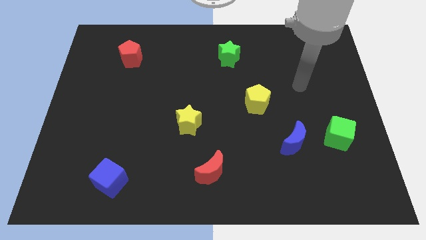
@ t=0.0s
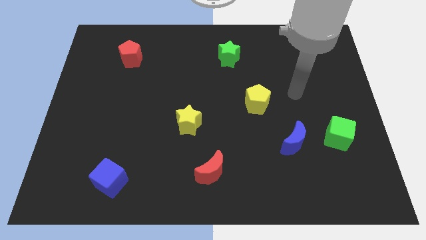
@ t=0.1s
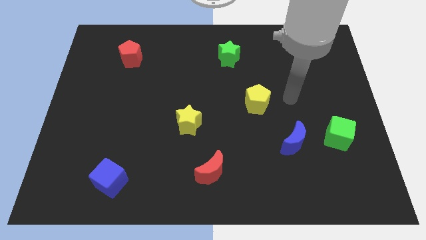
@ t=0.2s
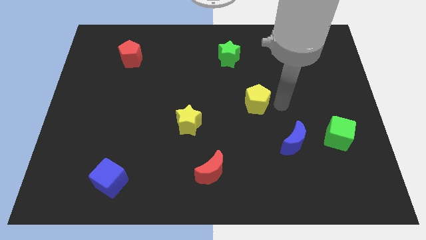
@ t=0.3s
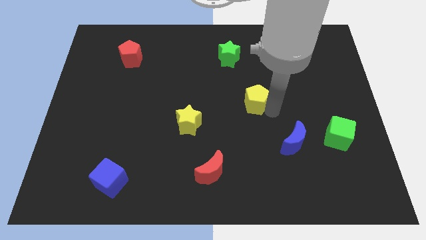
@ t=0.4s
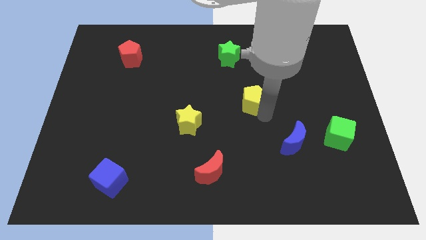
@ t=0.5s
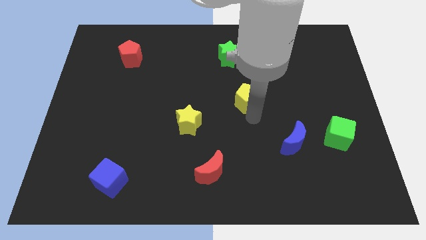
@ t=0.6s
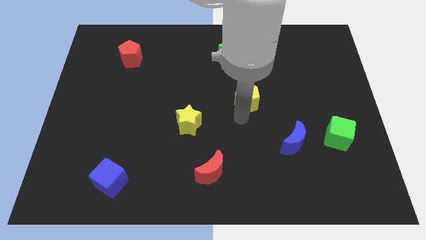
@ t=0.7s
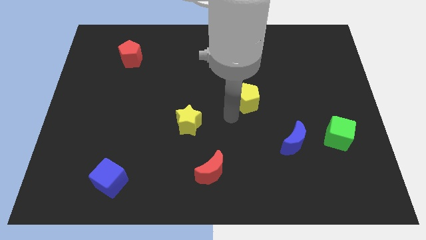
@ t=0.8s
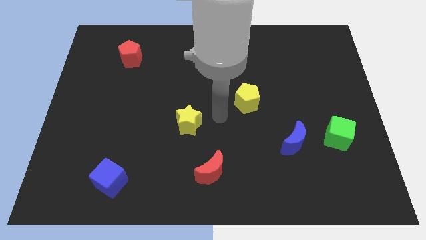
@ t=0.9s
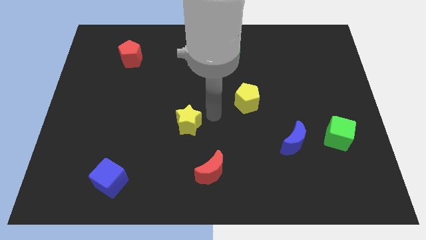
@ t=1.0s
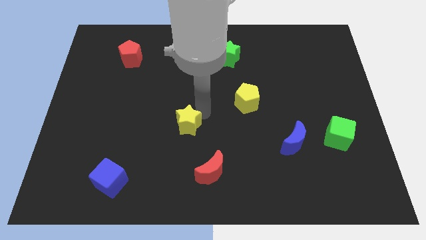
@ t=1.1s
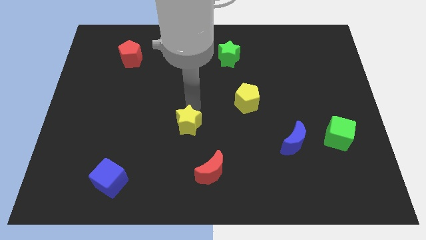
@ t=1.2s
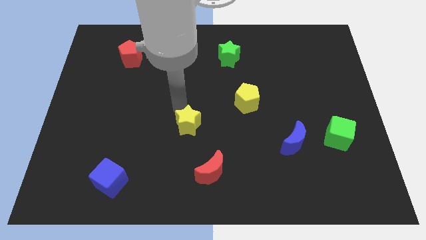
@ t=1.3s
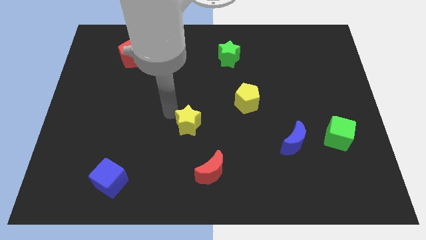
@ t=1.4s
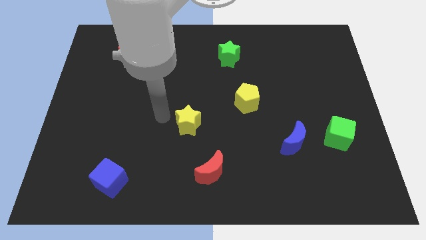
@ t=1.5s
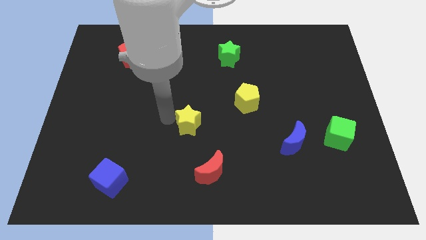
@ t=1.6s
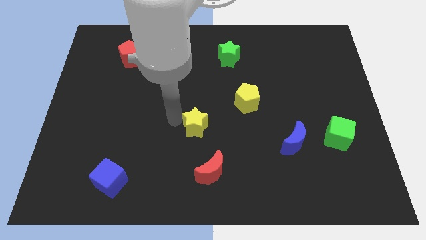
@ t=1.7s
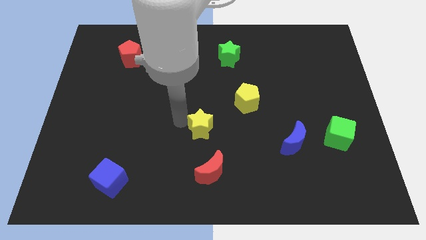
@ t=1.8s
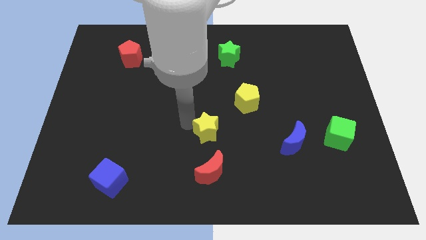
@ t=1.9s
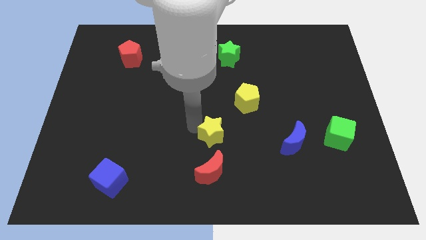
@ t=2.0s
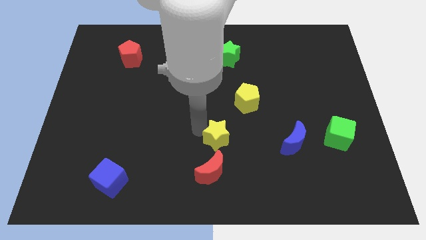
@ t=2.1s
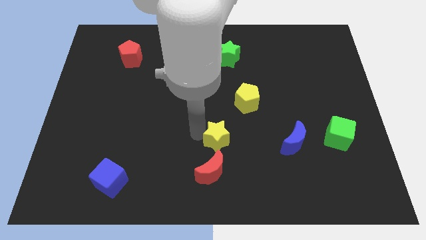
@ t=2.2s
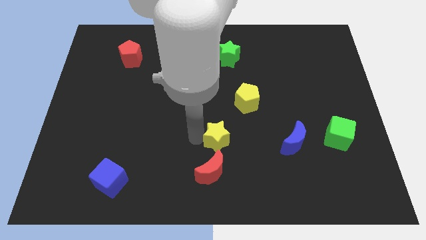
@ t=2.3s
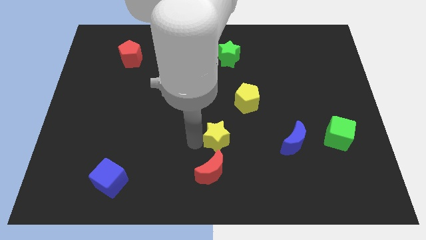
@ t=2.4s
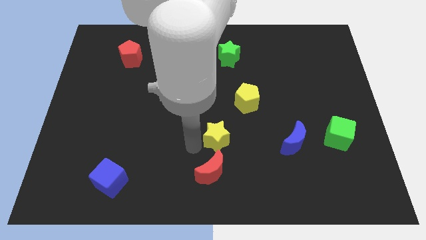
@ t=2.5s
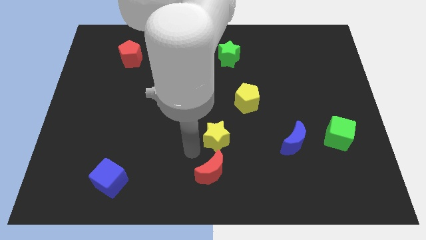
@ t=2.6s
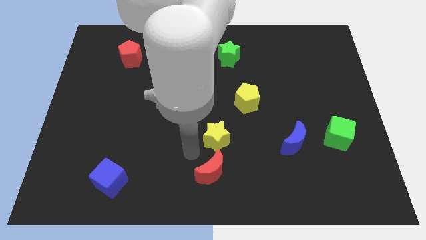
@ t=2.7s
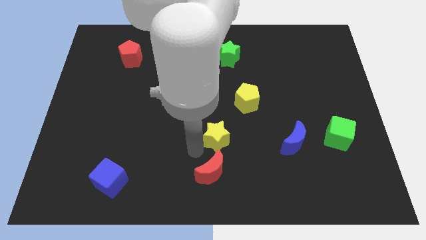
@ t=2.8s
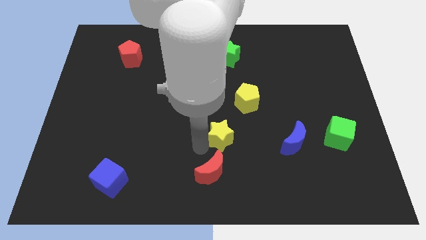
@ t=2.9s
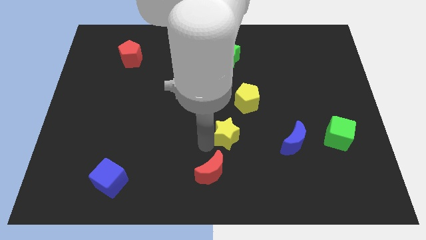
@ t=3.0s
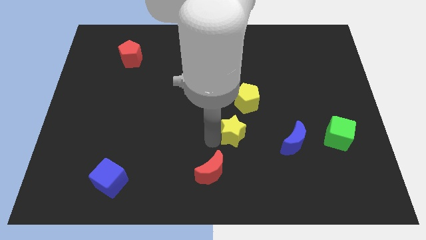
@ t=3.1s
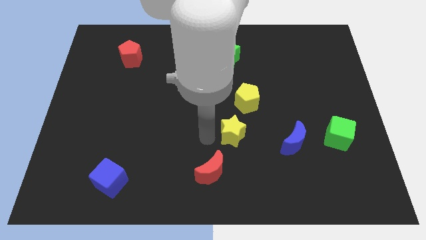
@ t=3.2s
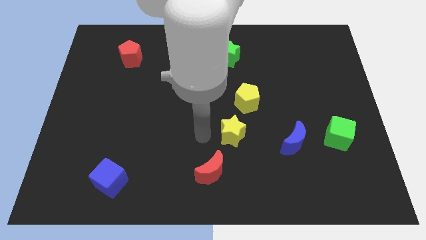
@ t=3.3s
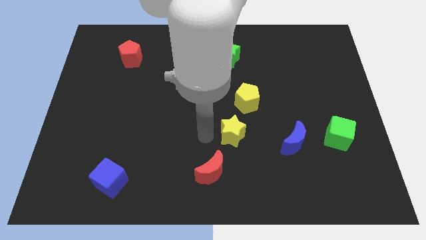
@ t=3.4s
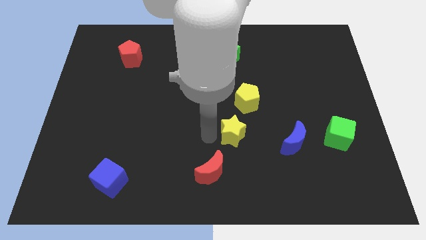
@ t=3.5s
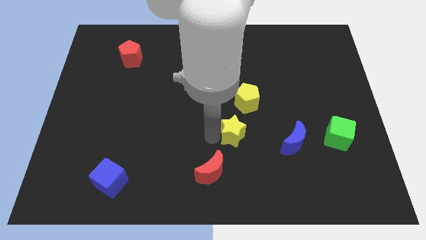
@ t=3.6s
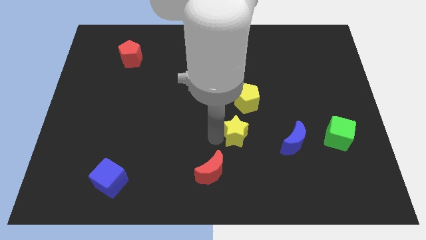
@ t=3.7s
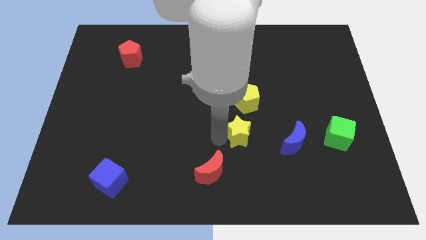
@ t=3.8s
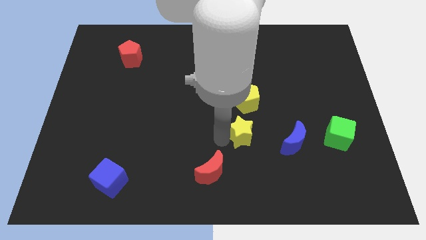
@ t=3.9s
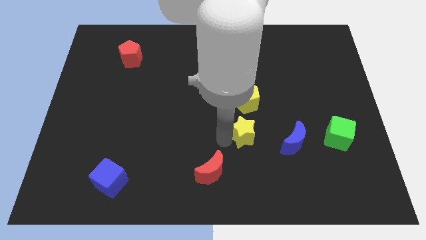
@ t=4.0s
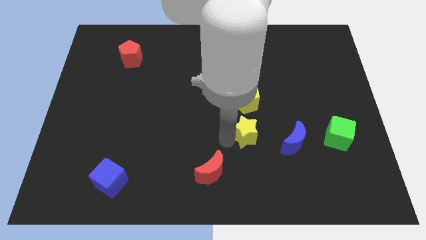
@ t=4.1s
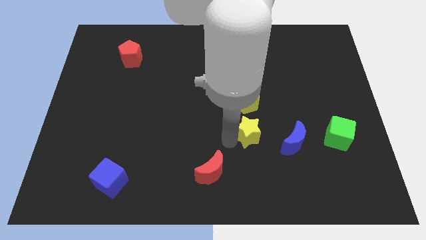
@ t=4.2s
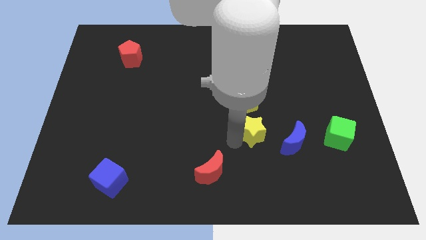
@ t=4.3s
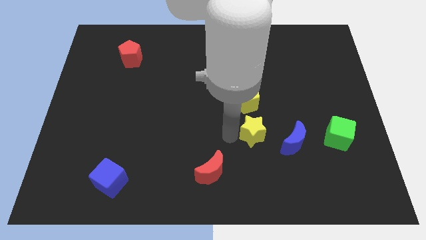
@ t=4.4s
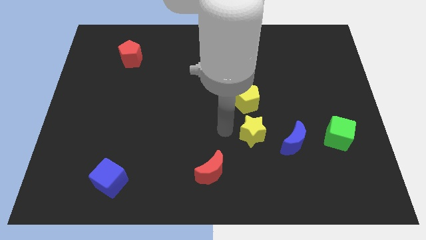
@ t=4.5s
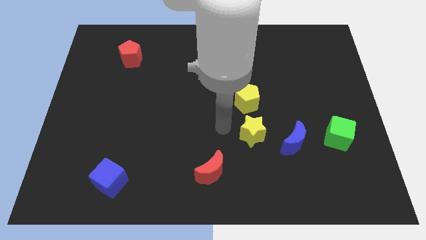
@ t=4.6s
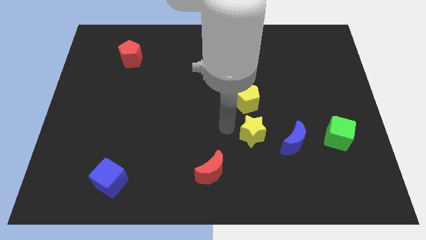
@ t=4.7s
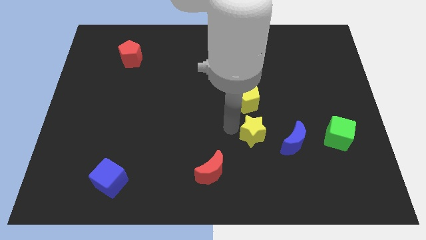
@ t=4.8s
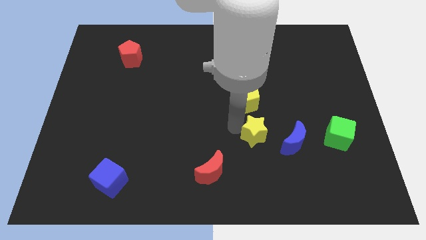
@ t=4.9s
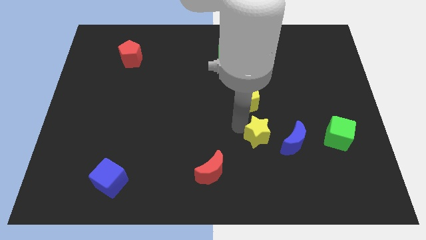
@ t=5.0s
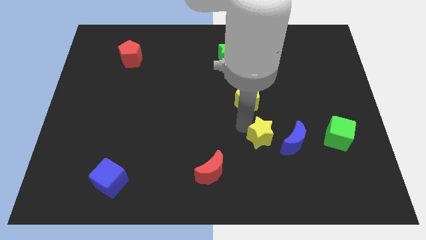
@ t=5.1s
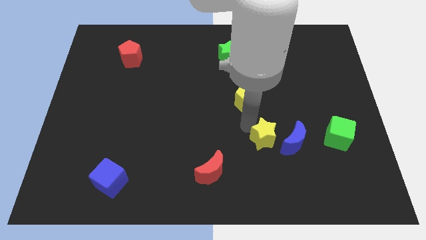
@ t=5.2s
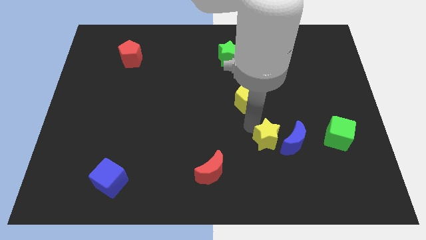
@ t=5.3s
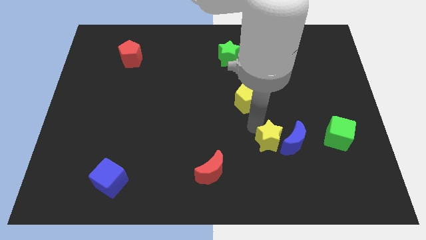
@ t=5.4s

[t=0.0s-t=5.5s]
push the yellow star close to the blue moon

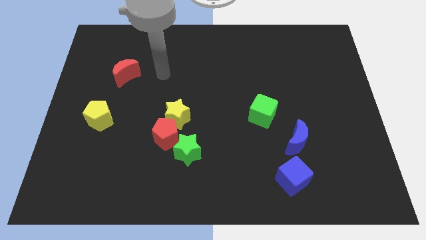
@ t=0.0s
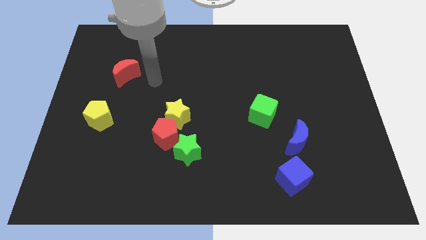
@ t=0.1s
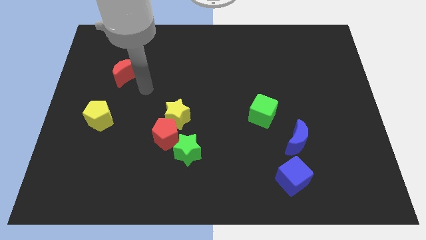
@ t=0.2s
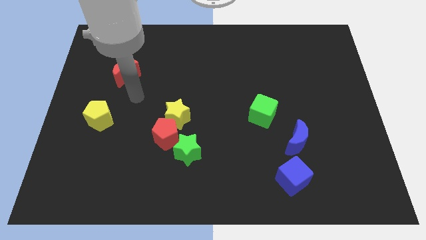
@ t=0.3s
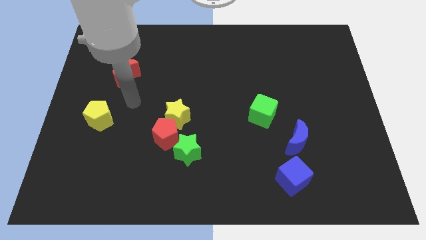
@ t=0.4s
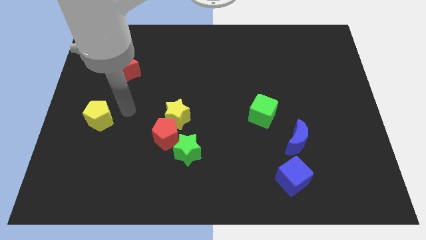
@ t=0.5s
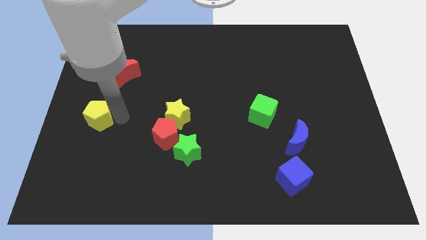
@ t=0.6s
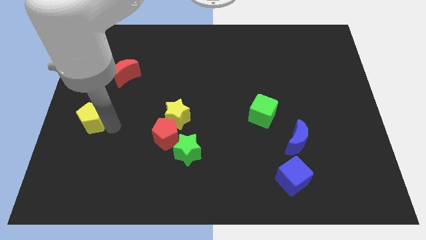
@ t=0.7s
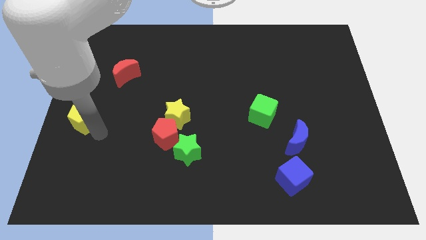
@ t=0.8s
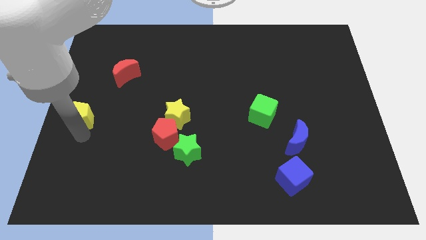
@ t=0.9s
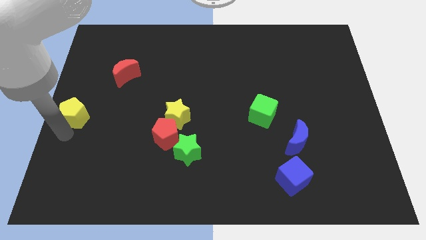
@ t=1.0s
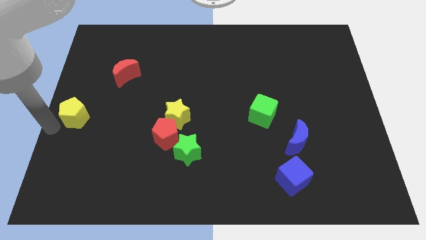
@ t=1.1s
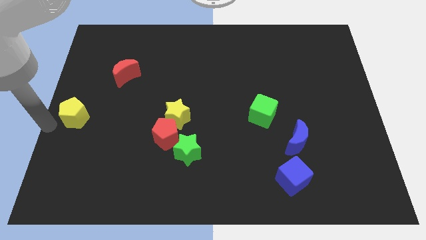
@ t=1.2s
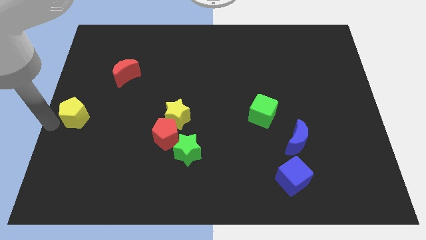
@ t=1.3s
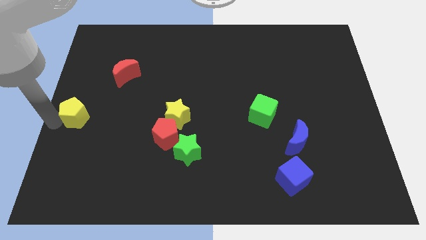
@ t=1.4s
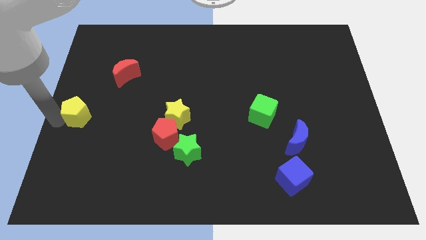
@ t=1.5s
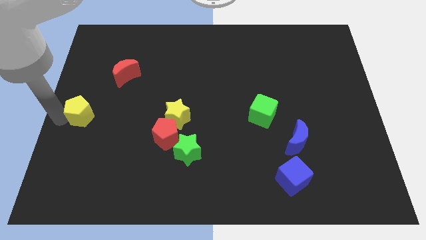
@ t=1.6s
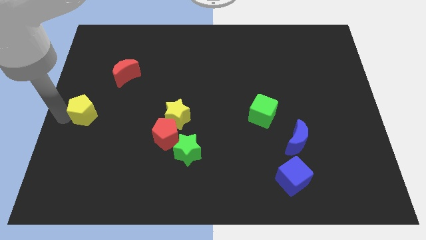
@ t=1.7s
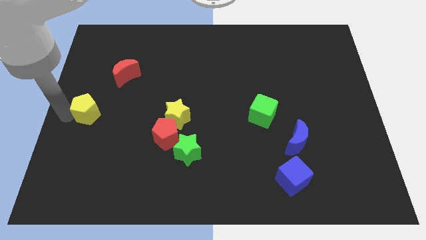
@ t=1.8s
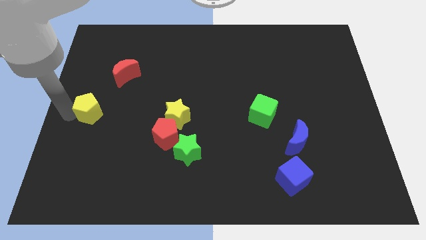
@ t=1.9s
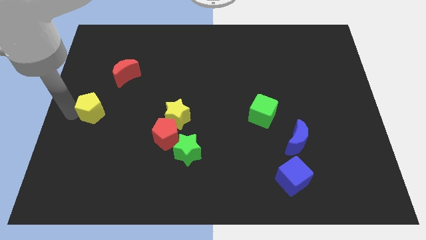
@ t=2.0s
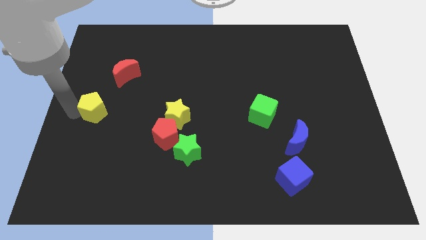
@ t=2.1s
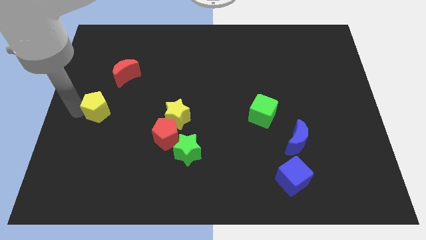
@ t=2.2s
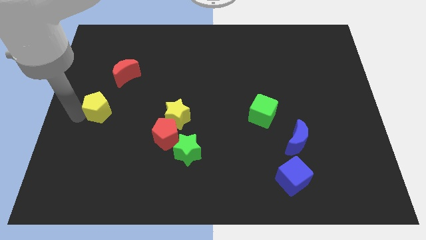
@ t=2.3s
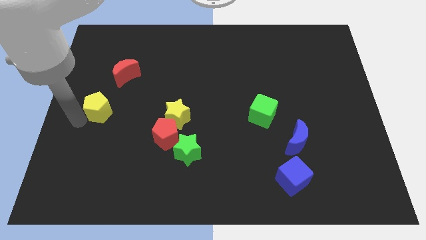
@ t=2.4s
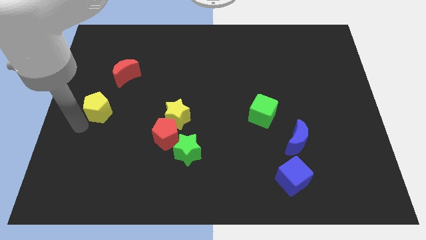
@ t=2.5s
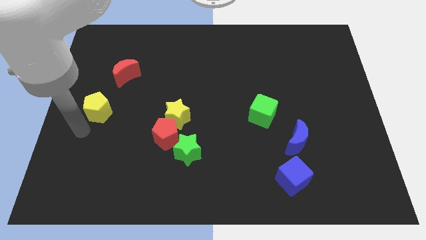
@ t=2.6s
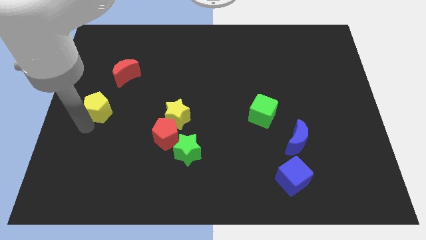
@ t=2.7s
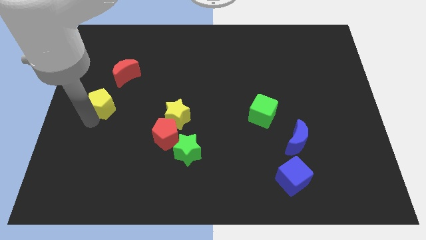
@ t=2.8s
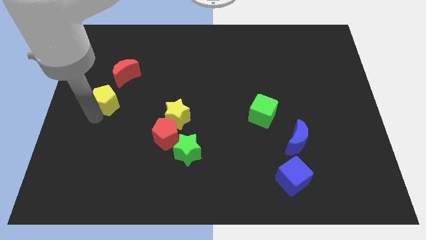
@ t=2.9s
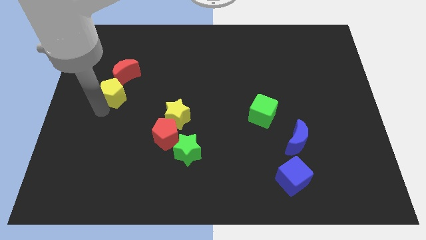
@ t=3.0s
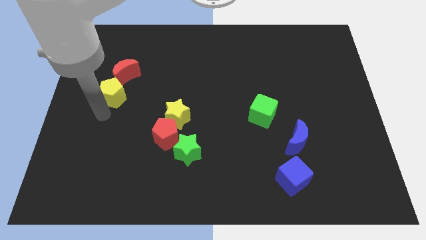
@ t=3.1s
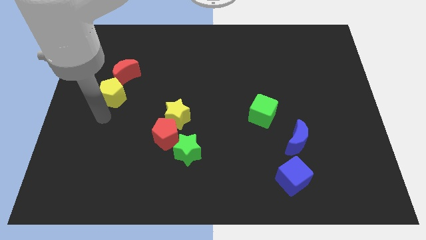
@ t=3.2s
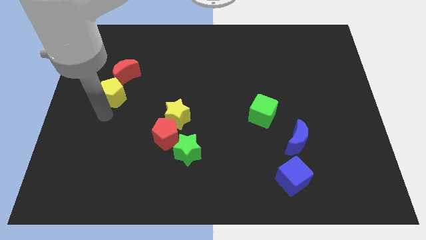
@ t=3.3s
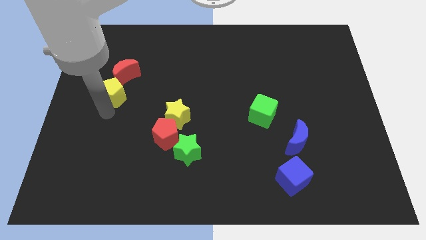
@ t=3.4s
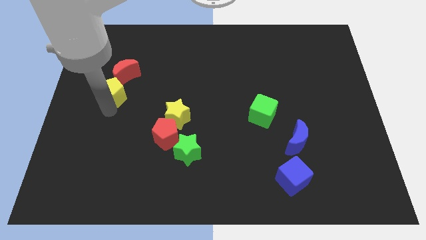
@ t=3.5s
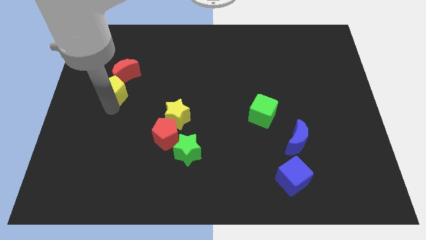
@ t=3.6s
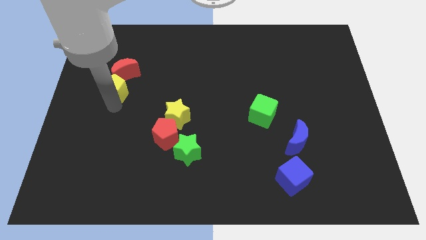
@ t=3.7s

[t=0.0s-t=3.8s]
push the yellow pentagon close to the red moon
